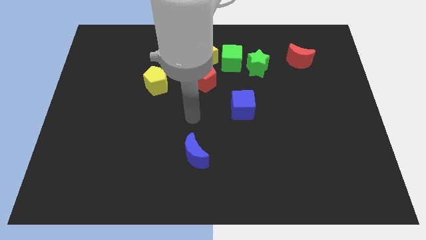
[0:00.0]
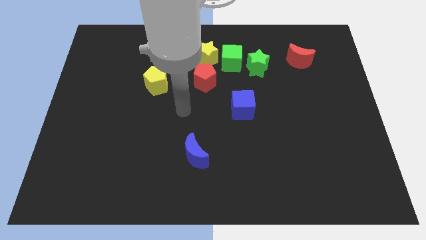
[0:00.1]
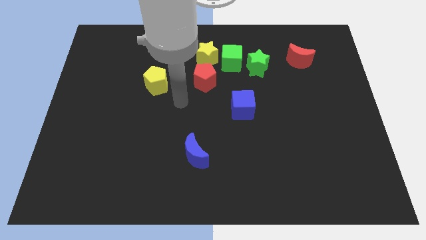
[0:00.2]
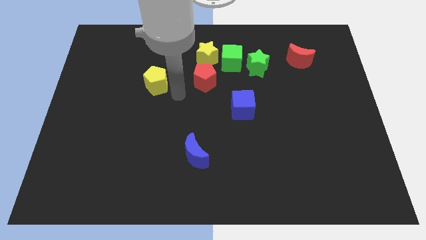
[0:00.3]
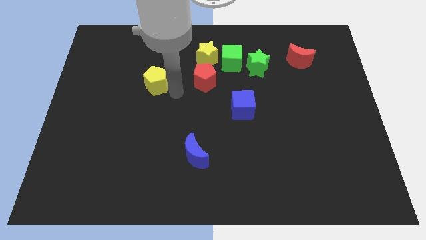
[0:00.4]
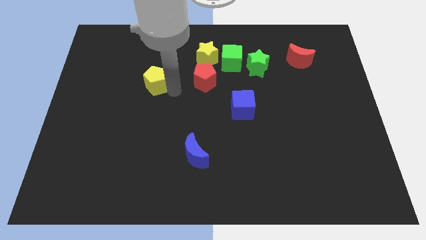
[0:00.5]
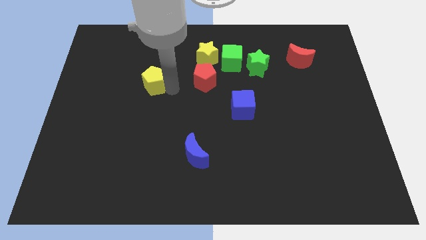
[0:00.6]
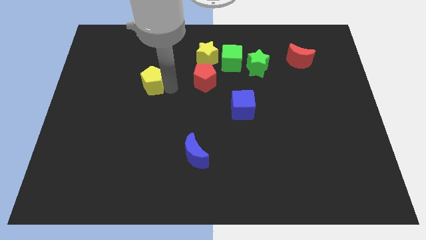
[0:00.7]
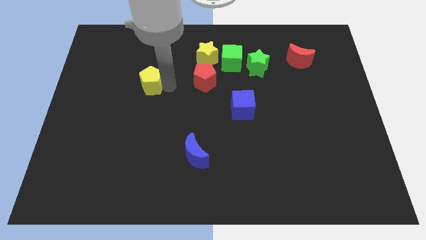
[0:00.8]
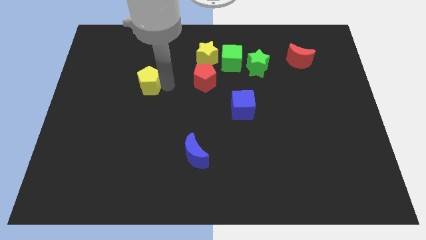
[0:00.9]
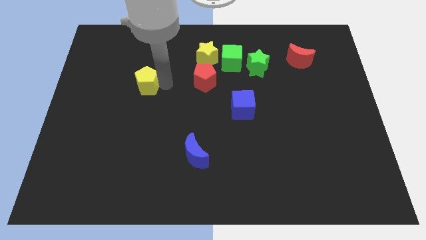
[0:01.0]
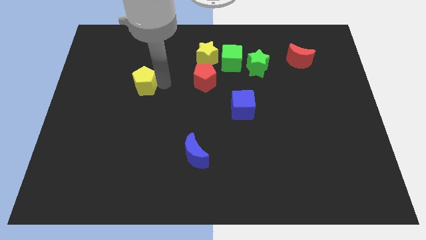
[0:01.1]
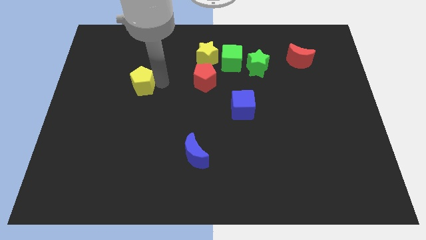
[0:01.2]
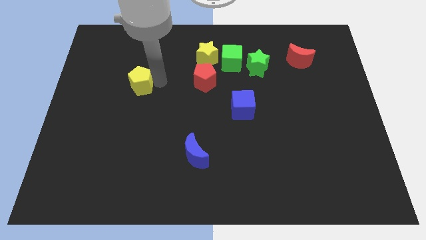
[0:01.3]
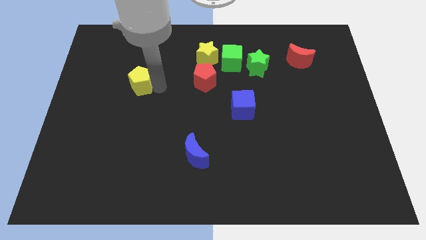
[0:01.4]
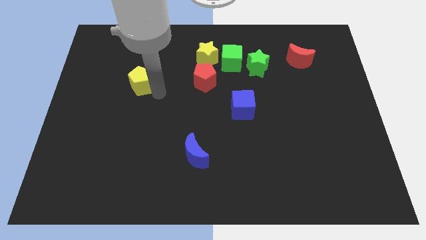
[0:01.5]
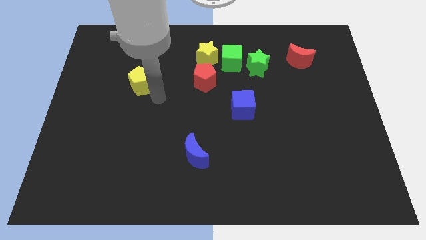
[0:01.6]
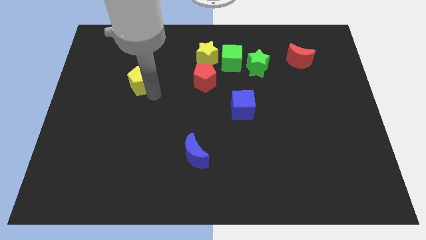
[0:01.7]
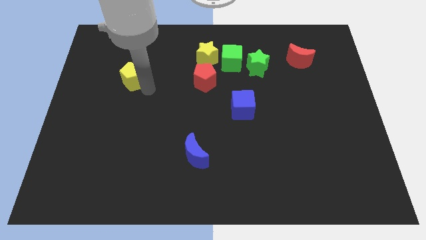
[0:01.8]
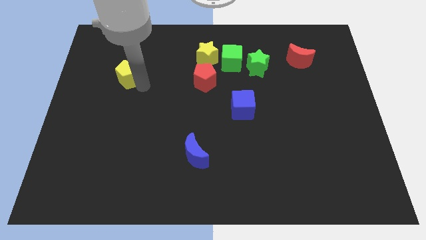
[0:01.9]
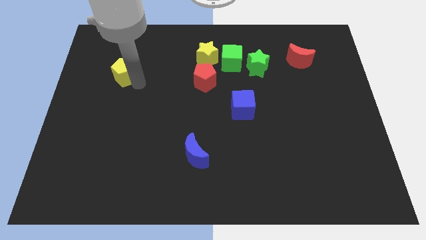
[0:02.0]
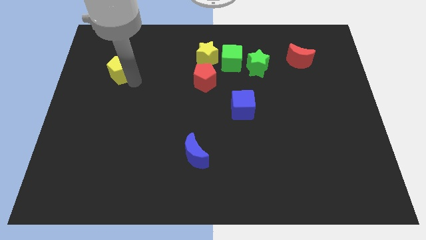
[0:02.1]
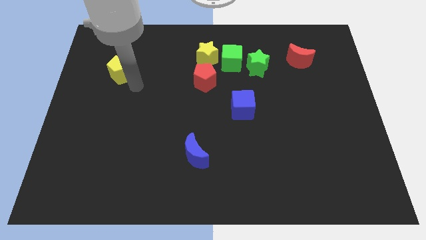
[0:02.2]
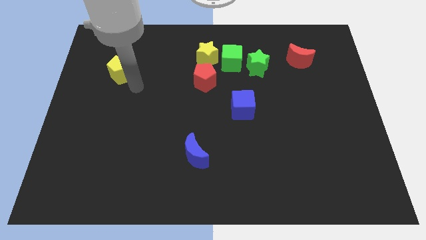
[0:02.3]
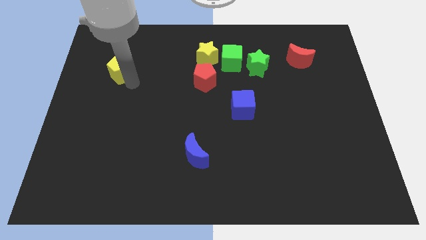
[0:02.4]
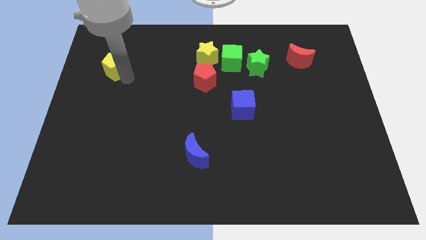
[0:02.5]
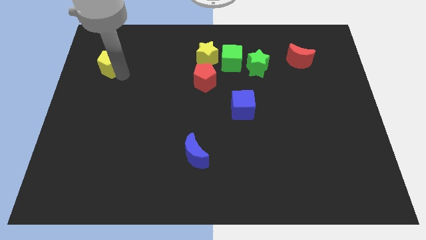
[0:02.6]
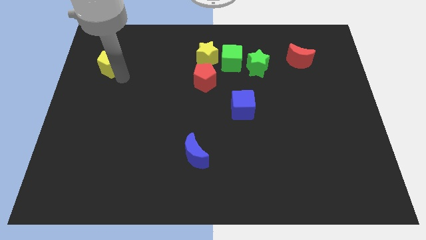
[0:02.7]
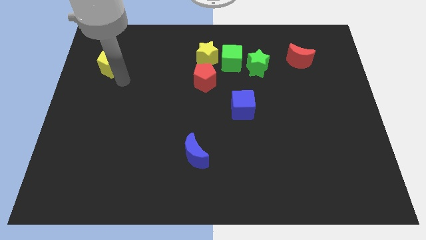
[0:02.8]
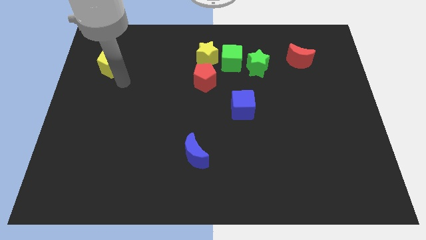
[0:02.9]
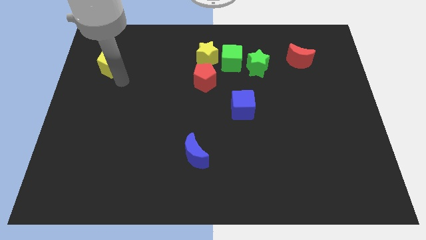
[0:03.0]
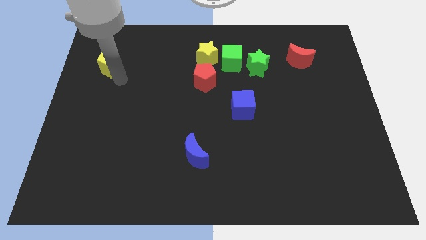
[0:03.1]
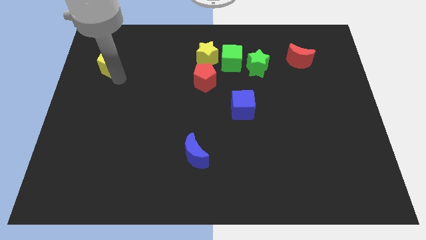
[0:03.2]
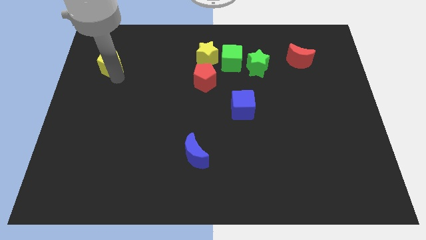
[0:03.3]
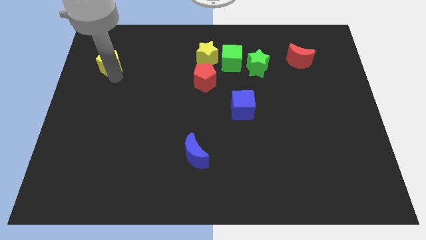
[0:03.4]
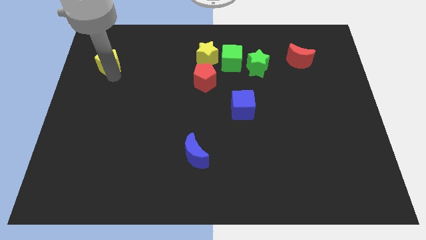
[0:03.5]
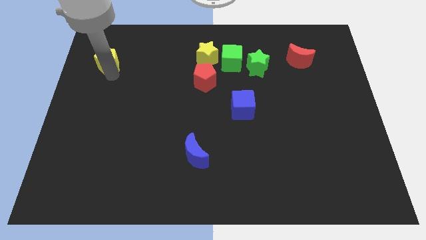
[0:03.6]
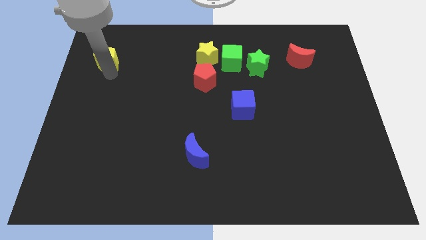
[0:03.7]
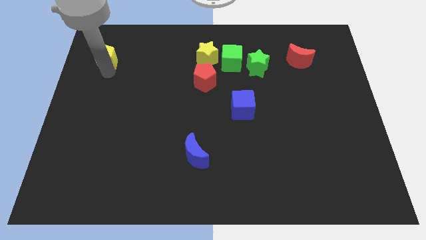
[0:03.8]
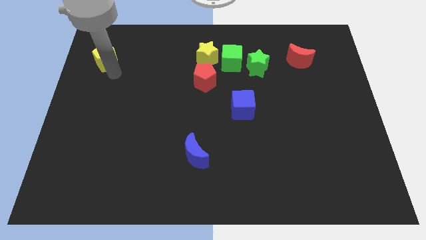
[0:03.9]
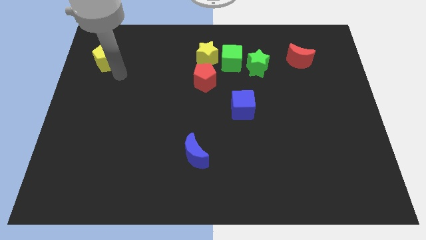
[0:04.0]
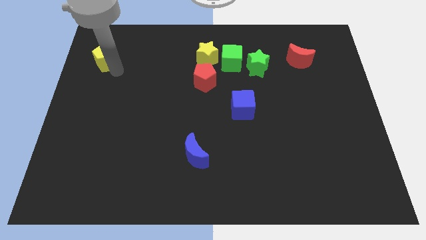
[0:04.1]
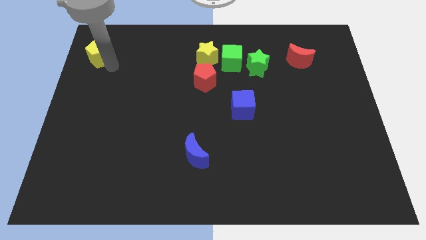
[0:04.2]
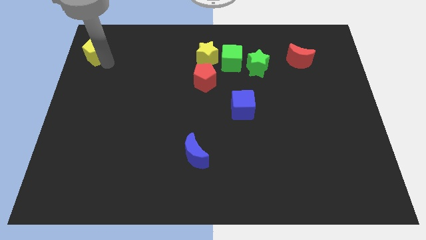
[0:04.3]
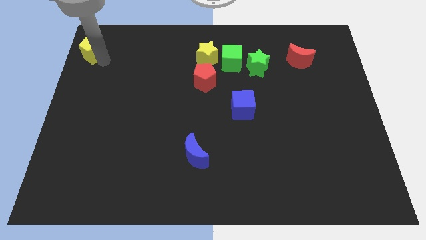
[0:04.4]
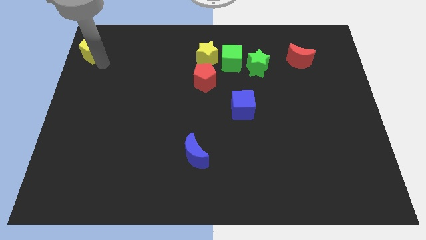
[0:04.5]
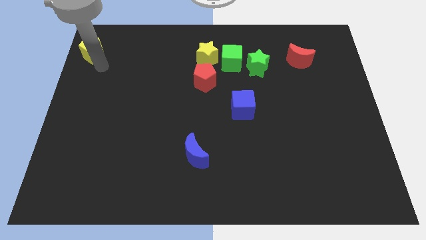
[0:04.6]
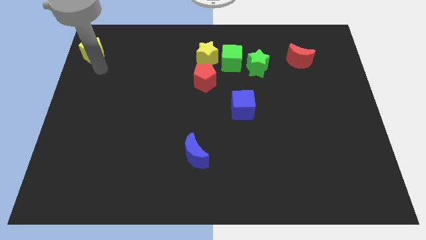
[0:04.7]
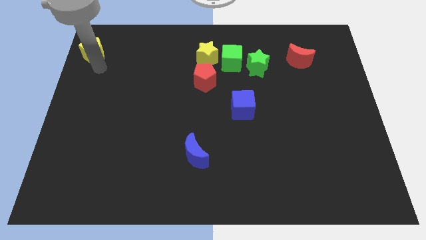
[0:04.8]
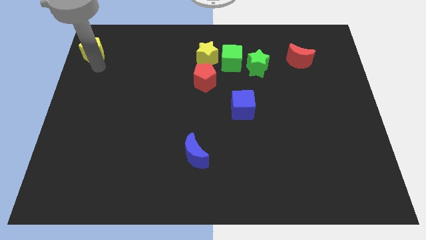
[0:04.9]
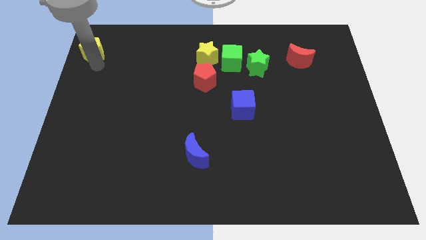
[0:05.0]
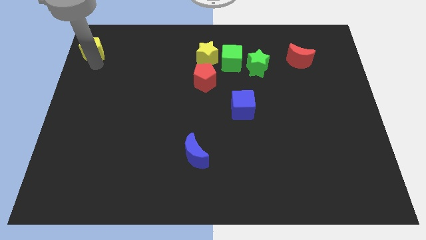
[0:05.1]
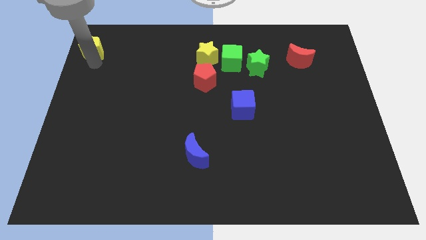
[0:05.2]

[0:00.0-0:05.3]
move the yellow pentagon to the upper left corner
